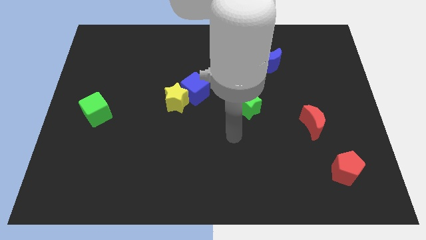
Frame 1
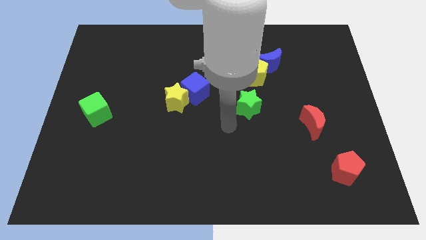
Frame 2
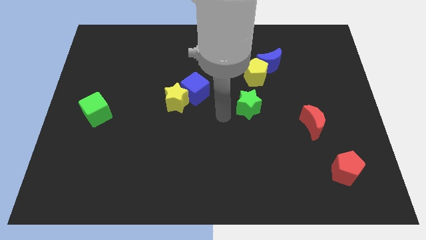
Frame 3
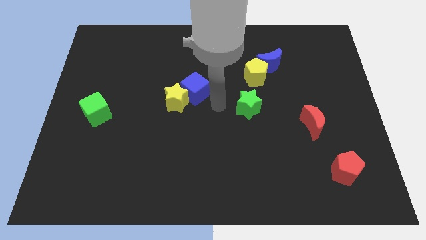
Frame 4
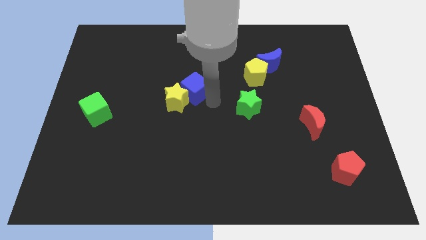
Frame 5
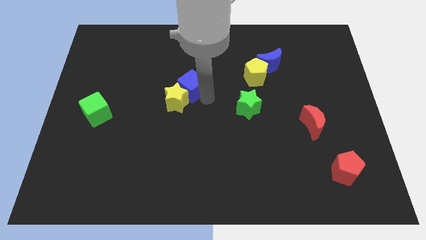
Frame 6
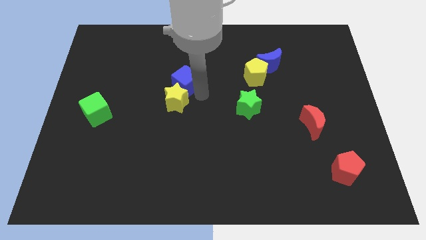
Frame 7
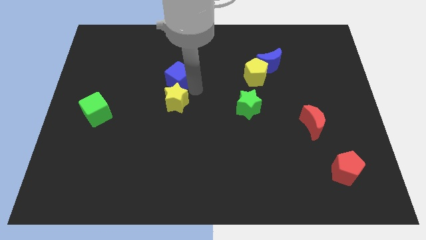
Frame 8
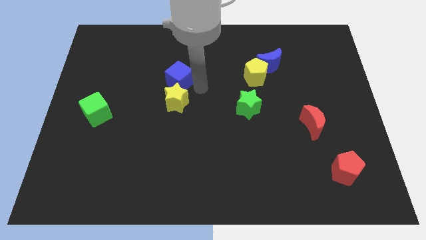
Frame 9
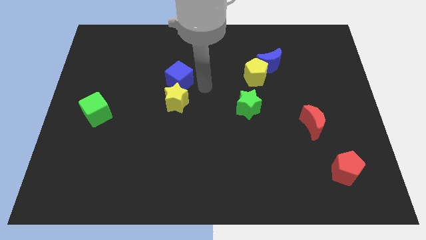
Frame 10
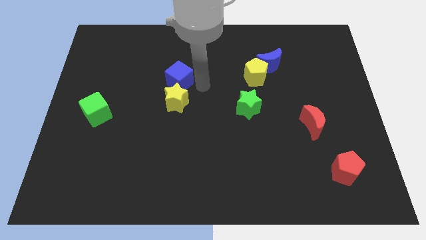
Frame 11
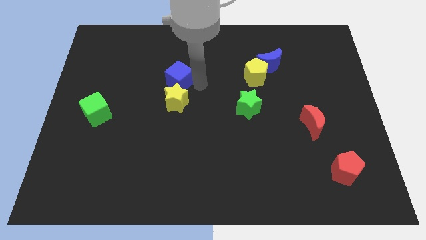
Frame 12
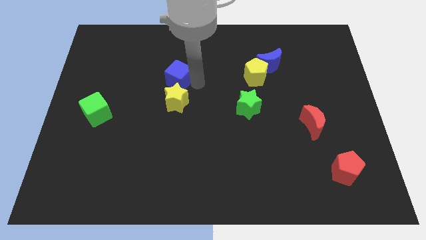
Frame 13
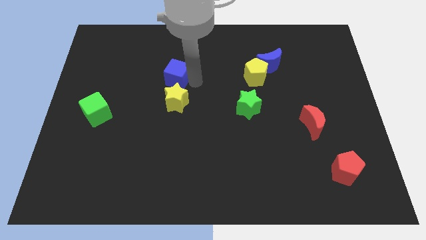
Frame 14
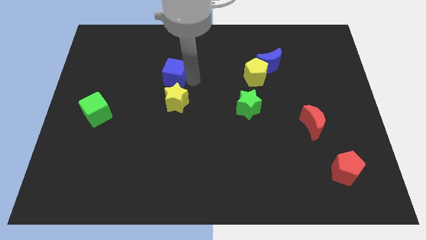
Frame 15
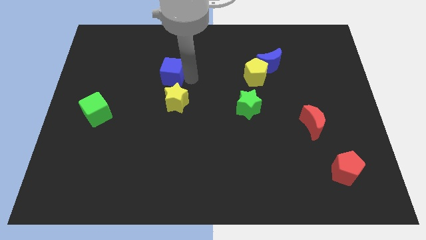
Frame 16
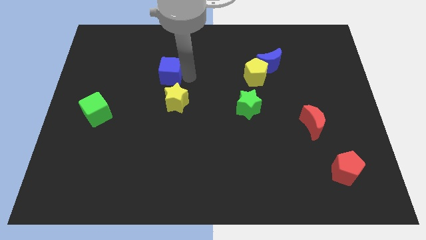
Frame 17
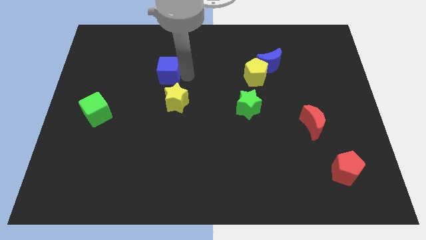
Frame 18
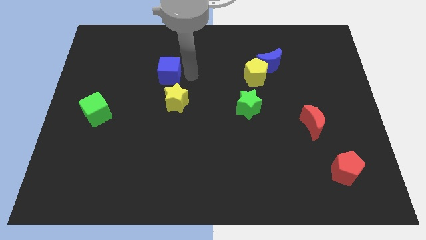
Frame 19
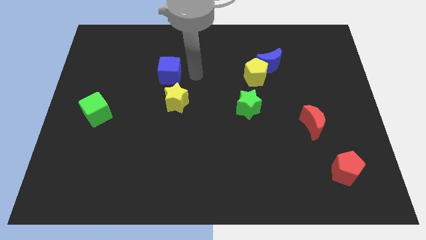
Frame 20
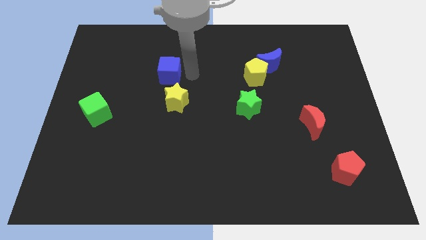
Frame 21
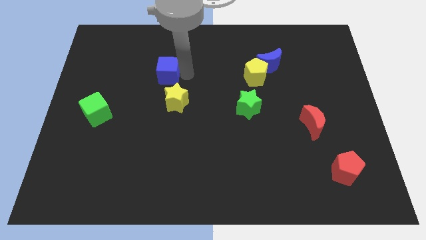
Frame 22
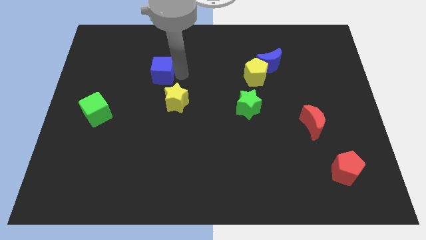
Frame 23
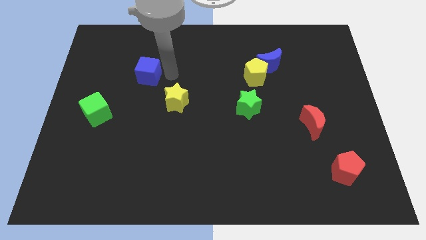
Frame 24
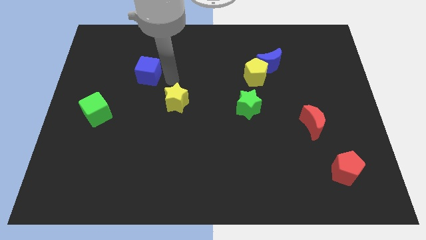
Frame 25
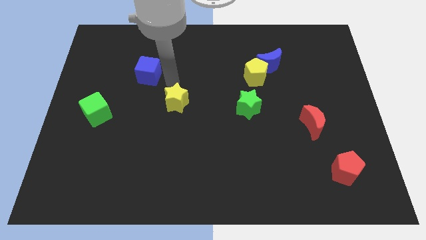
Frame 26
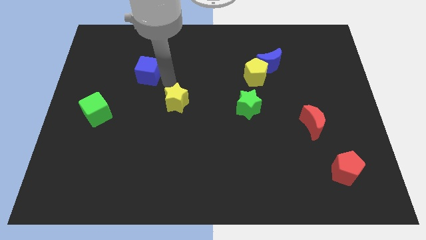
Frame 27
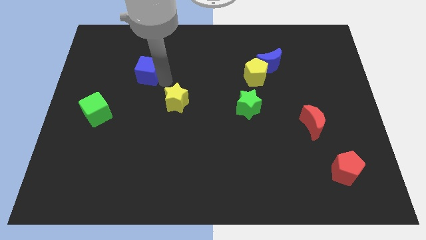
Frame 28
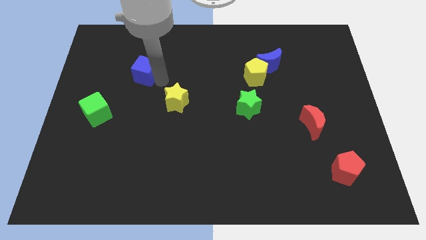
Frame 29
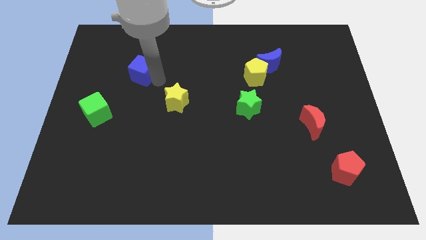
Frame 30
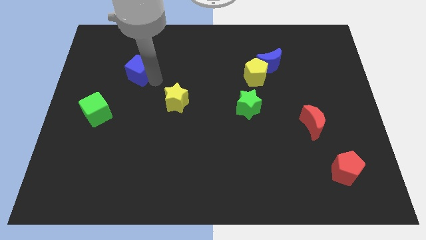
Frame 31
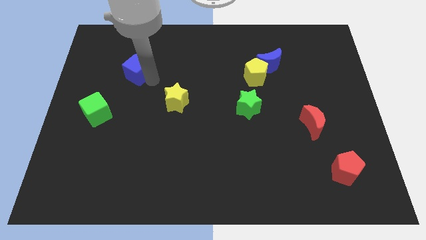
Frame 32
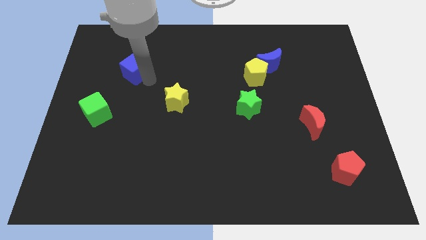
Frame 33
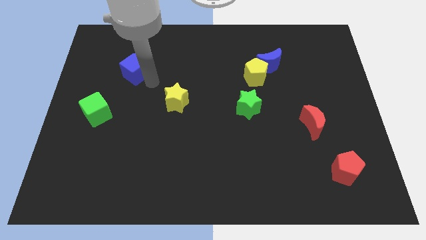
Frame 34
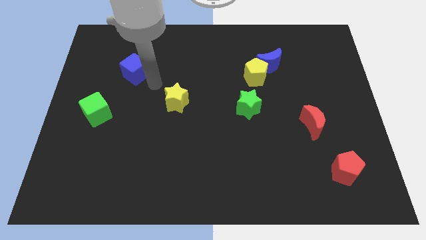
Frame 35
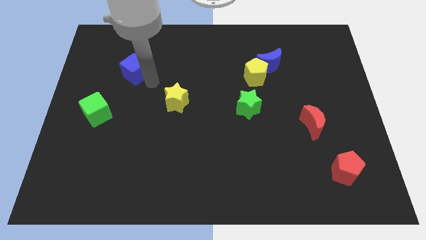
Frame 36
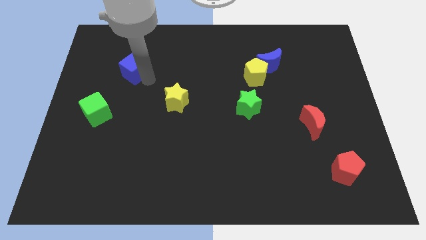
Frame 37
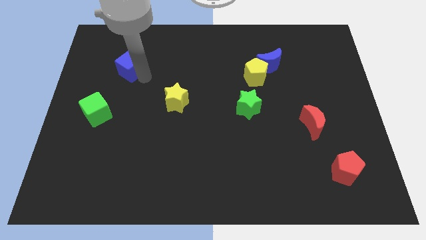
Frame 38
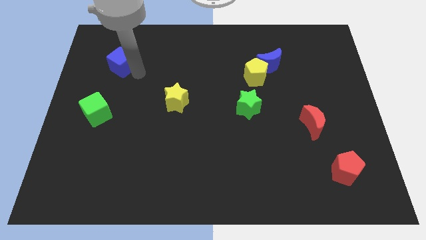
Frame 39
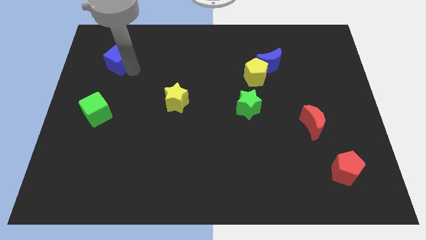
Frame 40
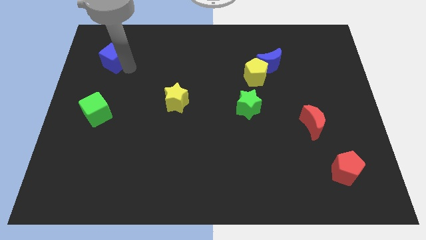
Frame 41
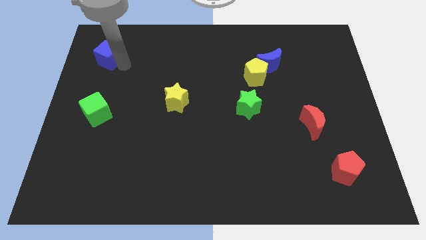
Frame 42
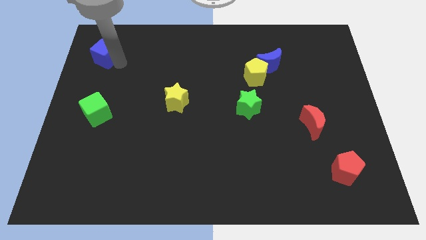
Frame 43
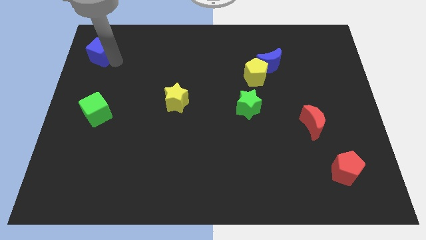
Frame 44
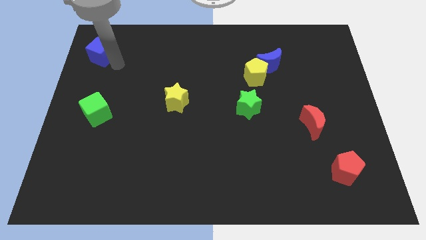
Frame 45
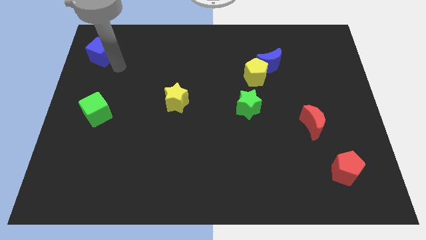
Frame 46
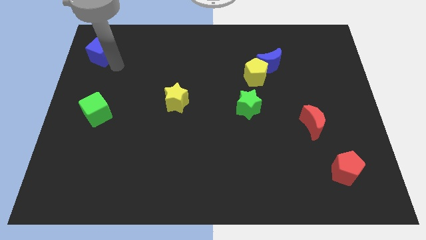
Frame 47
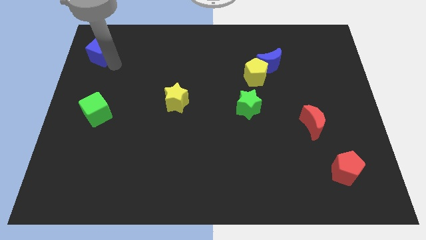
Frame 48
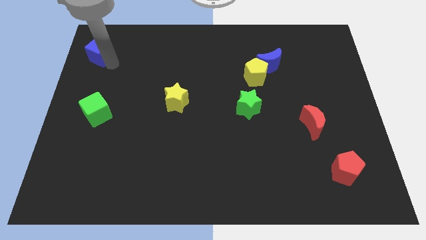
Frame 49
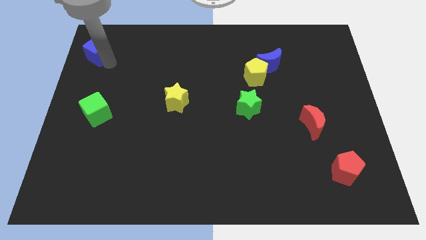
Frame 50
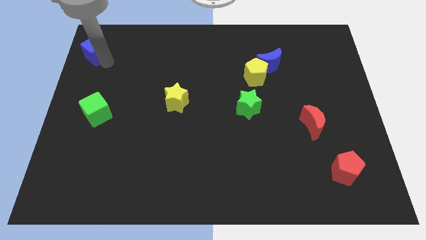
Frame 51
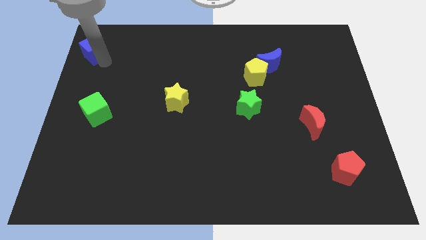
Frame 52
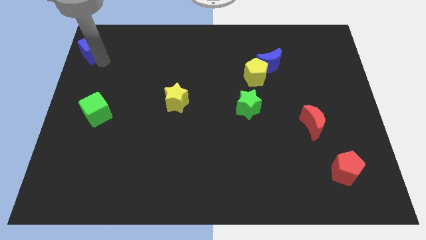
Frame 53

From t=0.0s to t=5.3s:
put the blue cube to the upper left corner

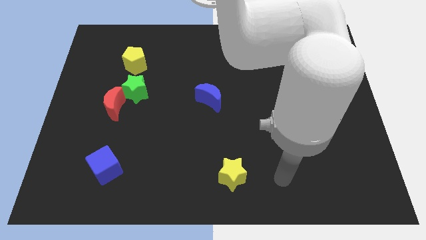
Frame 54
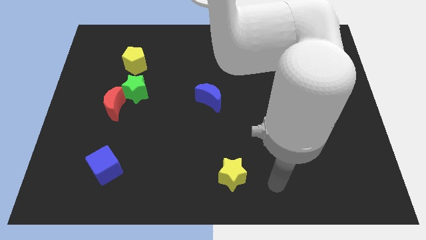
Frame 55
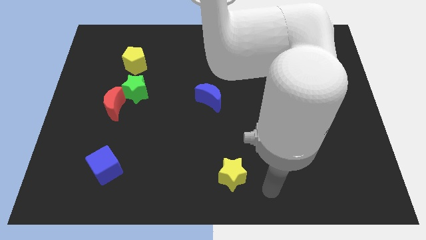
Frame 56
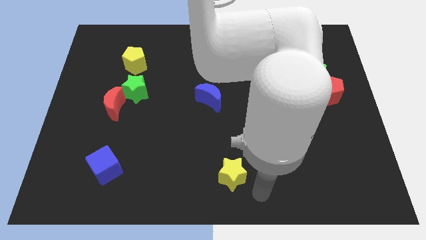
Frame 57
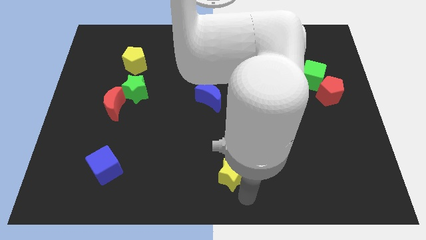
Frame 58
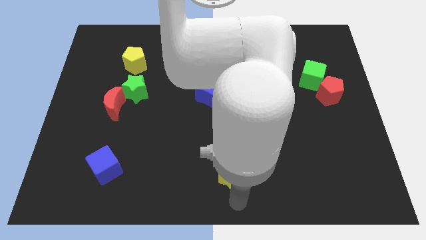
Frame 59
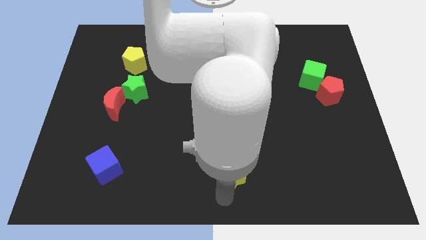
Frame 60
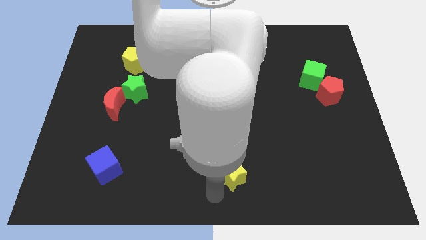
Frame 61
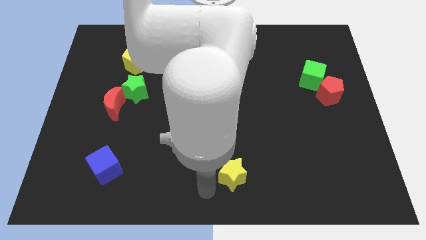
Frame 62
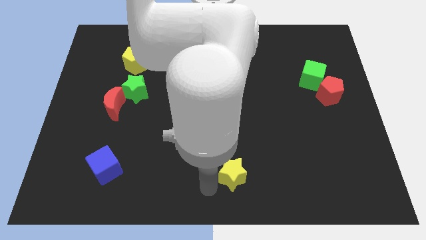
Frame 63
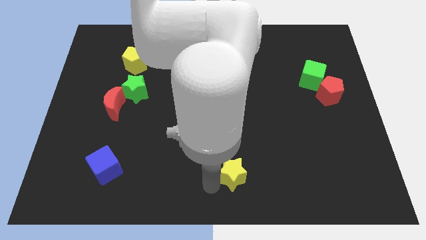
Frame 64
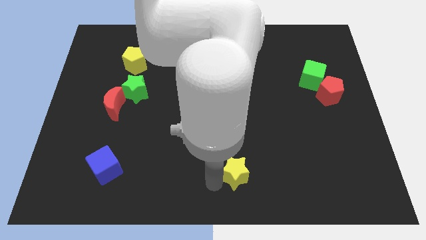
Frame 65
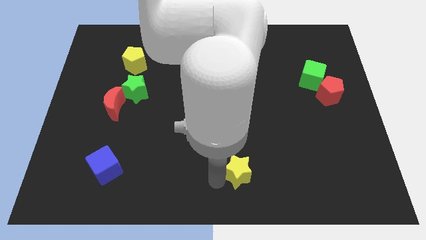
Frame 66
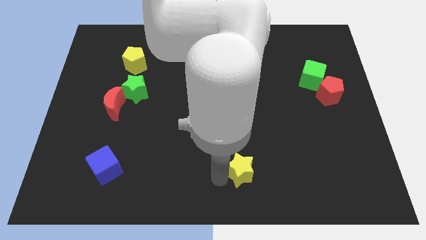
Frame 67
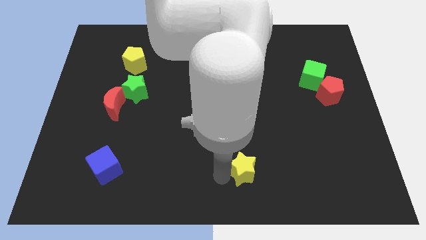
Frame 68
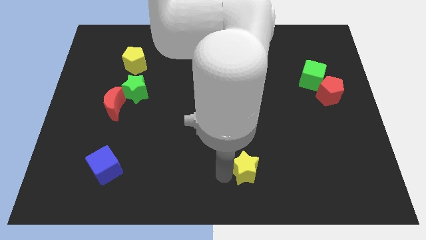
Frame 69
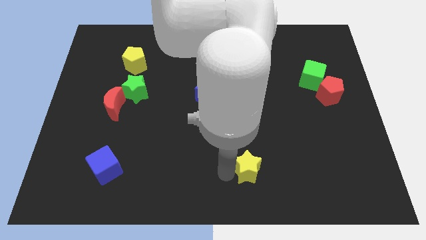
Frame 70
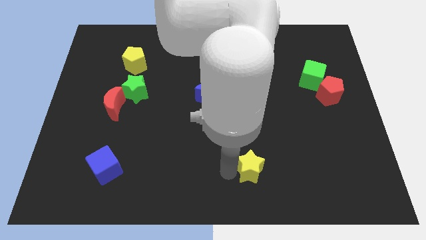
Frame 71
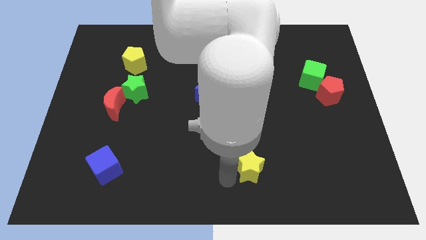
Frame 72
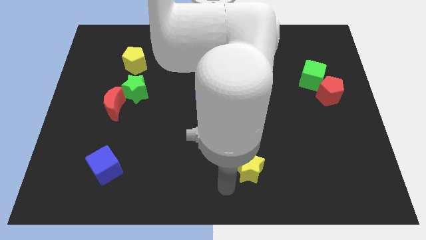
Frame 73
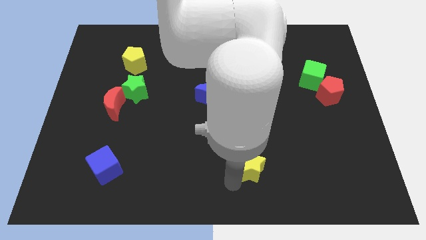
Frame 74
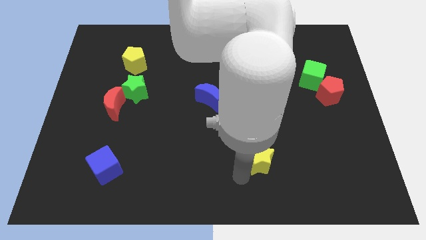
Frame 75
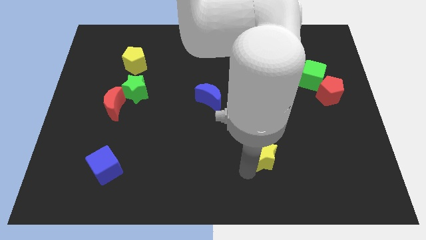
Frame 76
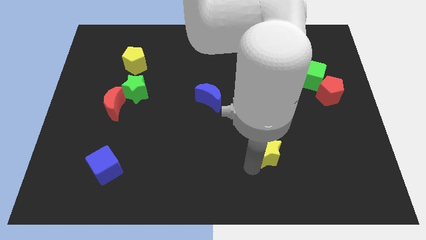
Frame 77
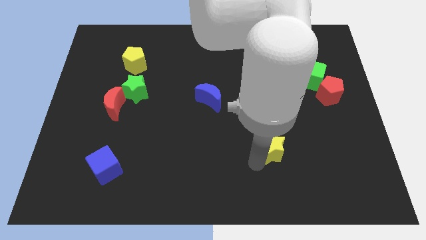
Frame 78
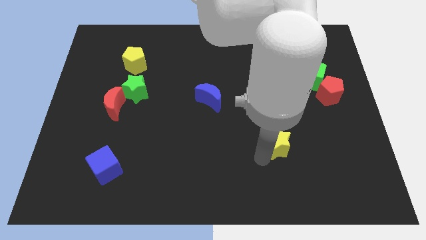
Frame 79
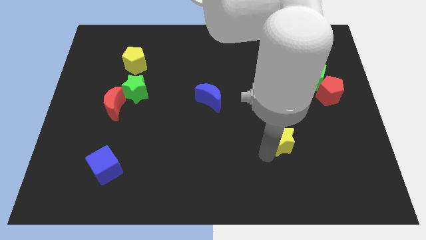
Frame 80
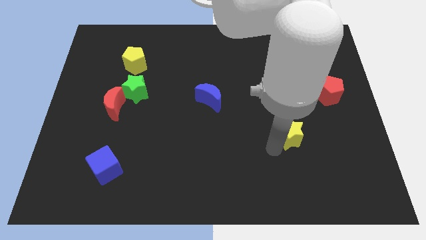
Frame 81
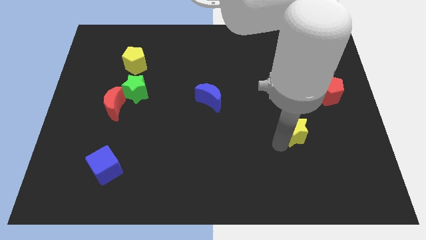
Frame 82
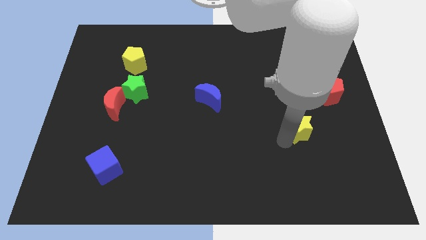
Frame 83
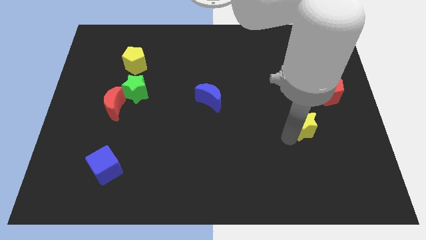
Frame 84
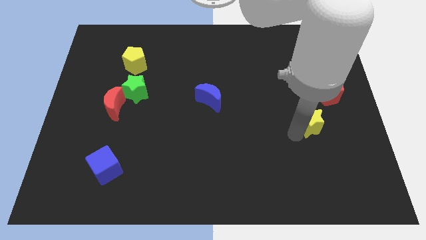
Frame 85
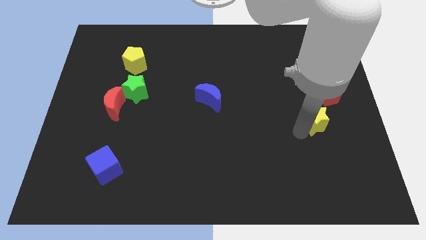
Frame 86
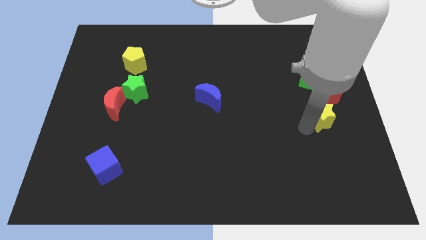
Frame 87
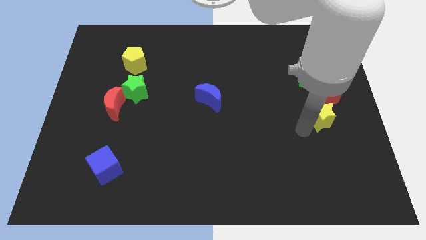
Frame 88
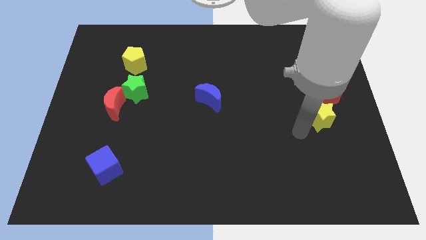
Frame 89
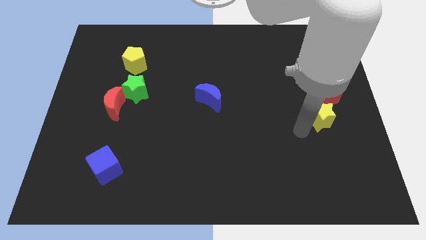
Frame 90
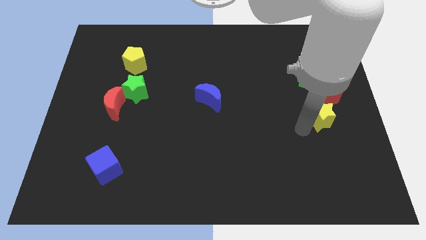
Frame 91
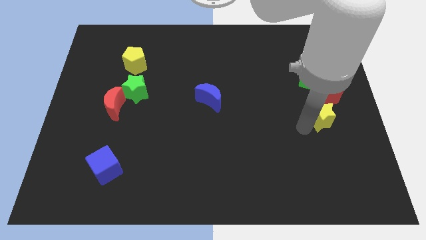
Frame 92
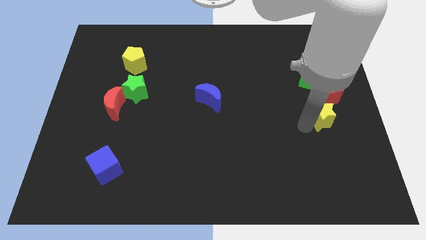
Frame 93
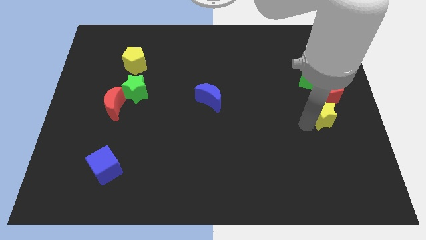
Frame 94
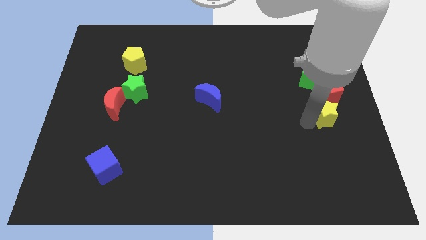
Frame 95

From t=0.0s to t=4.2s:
slide the yellow star to the right side
